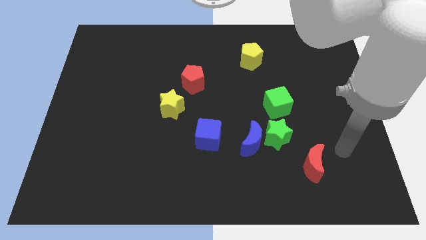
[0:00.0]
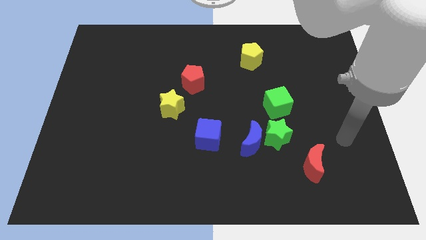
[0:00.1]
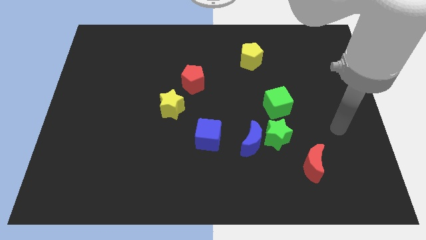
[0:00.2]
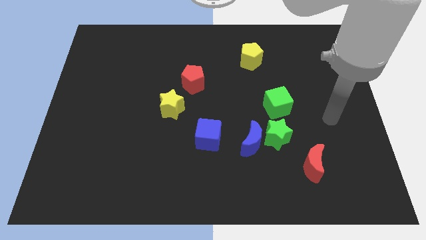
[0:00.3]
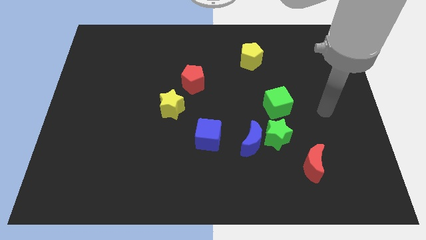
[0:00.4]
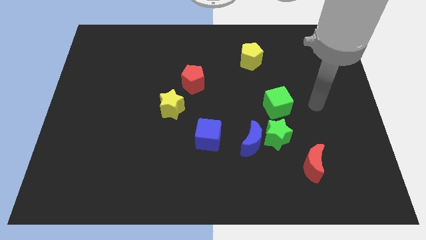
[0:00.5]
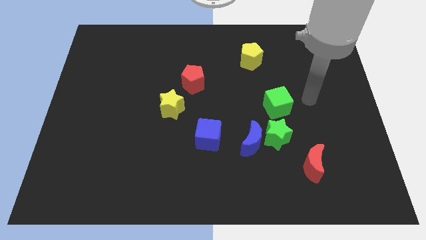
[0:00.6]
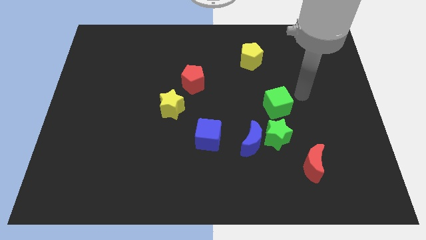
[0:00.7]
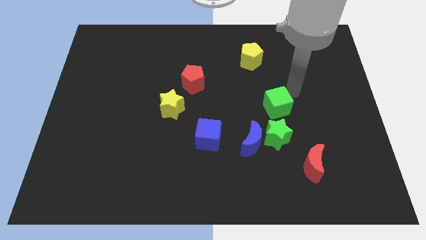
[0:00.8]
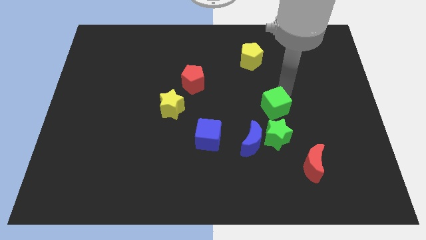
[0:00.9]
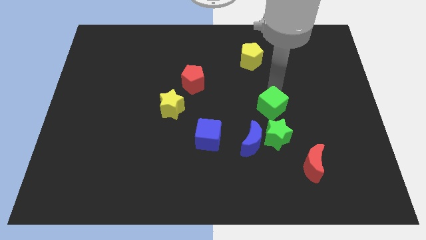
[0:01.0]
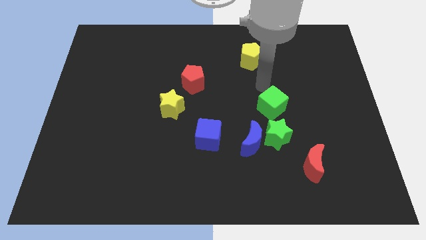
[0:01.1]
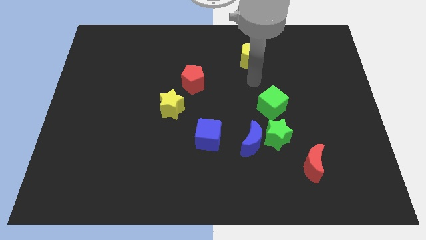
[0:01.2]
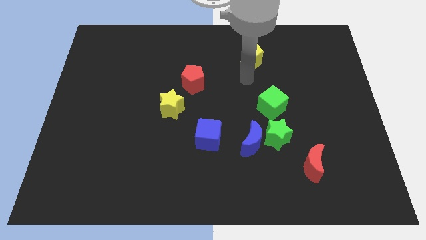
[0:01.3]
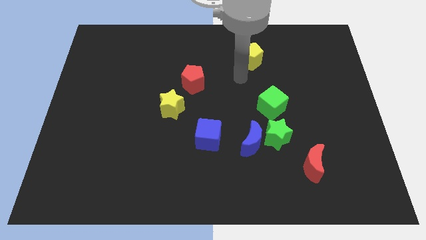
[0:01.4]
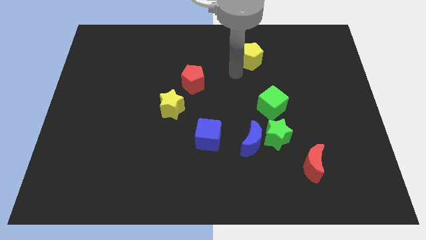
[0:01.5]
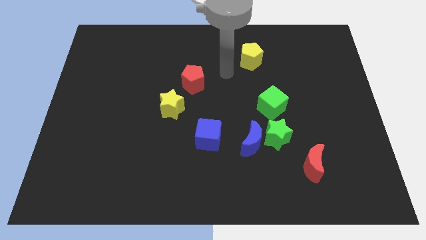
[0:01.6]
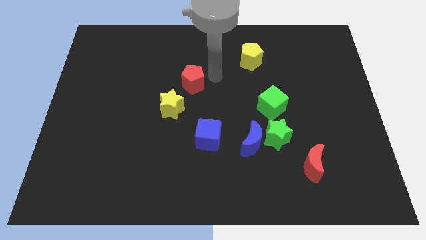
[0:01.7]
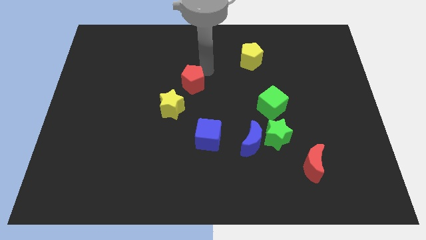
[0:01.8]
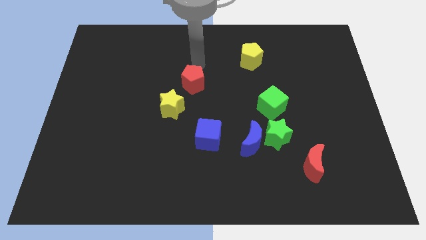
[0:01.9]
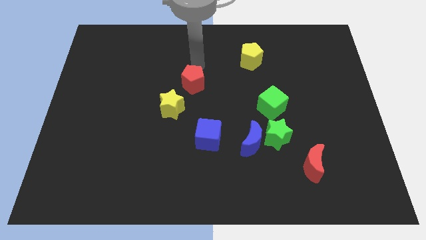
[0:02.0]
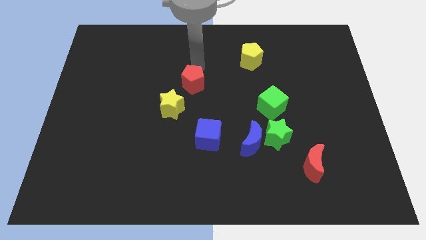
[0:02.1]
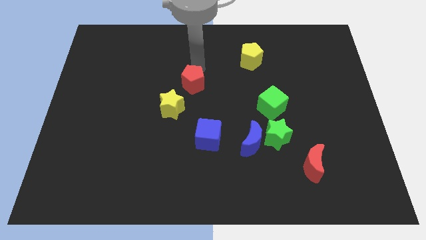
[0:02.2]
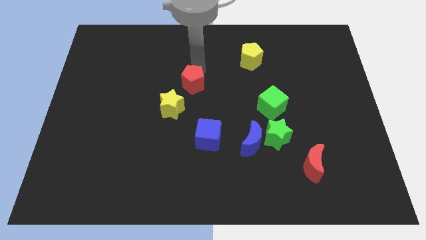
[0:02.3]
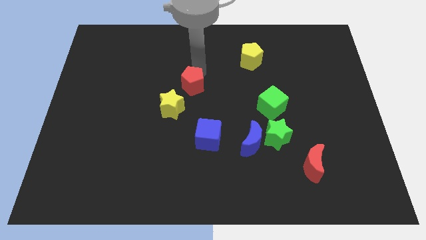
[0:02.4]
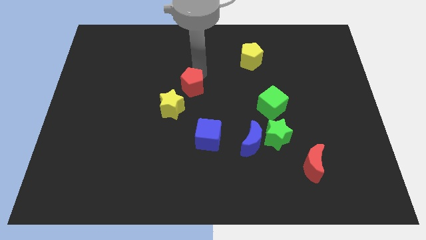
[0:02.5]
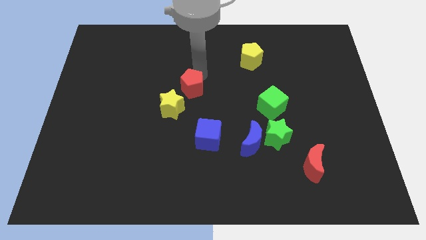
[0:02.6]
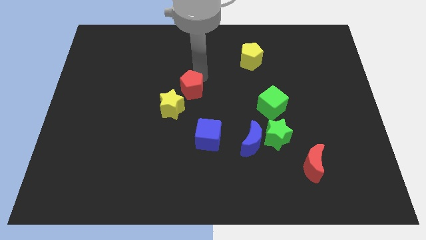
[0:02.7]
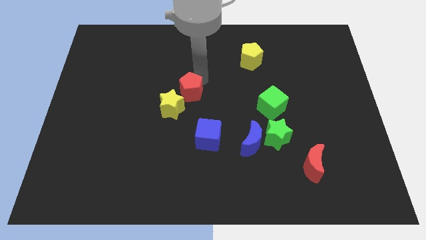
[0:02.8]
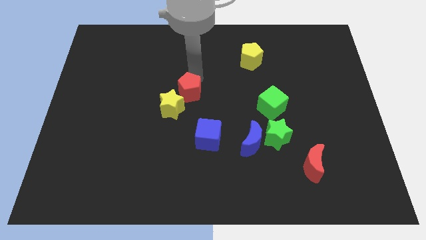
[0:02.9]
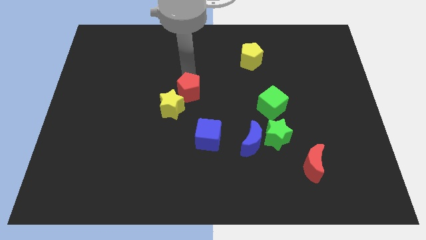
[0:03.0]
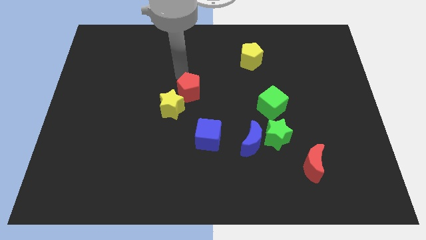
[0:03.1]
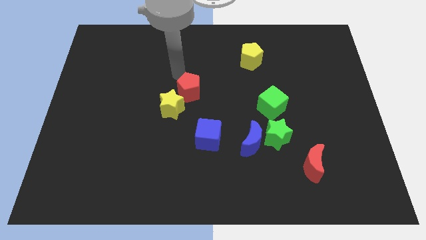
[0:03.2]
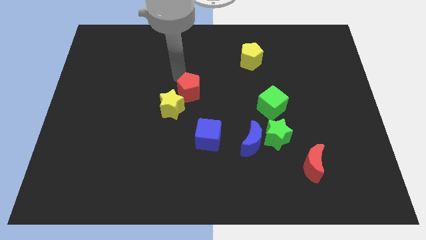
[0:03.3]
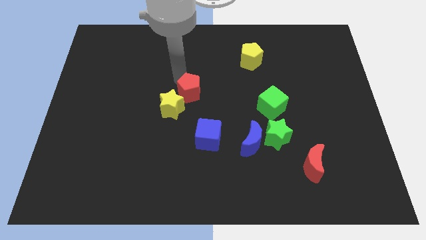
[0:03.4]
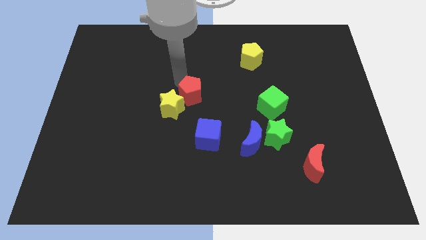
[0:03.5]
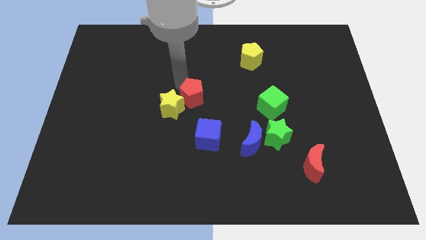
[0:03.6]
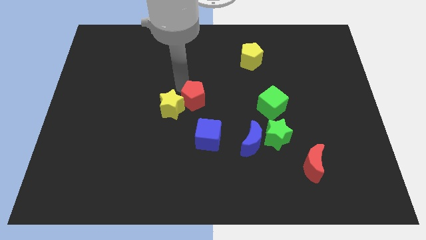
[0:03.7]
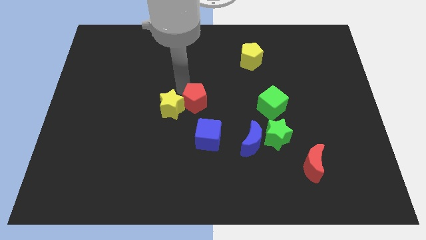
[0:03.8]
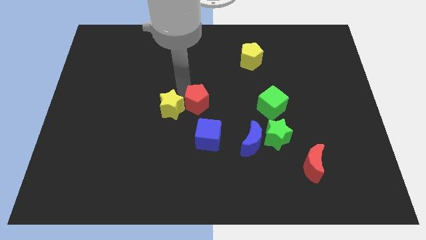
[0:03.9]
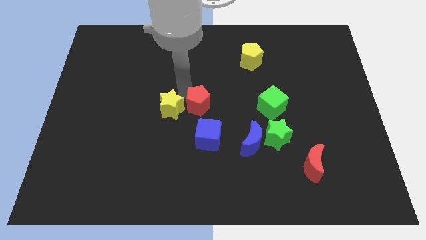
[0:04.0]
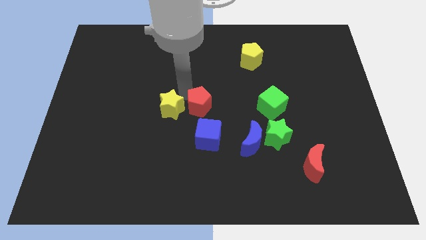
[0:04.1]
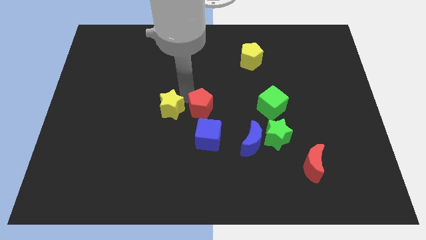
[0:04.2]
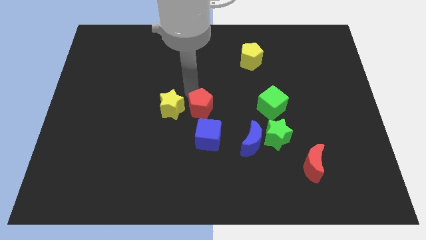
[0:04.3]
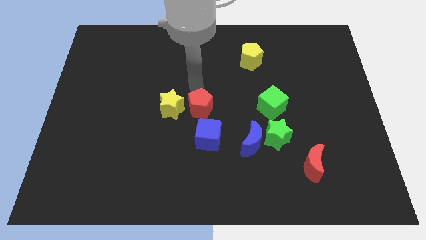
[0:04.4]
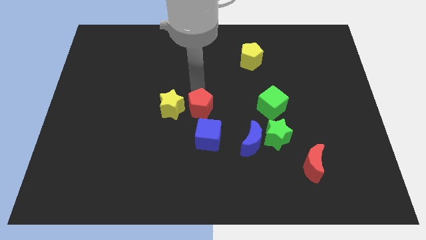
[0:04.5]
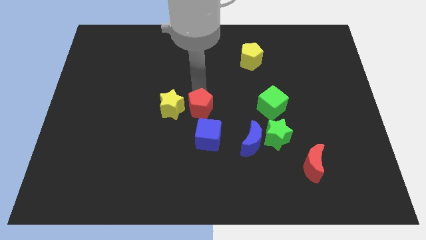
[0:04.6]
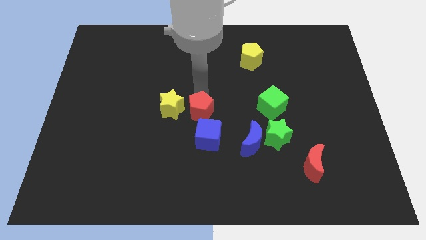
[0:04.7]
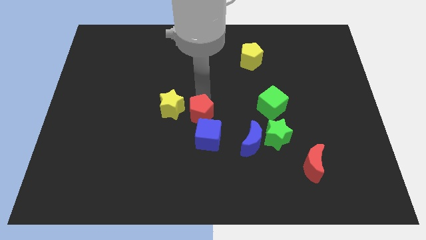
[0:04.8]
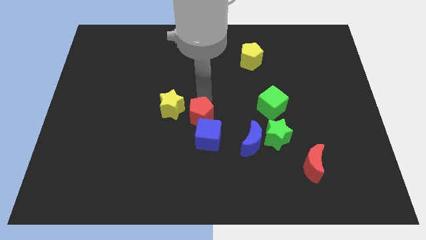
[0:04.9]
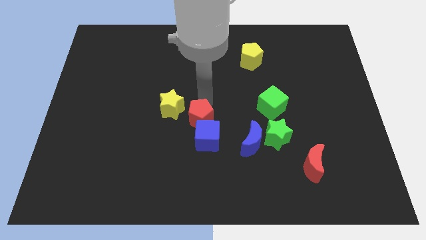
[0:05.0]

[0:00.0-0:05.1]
put the red pentagon next to the blue cube

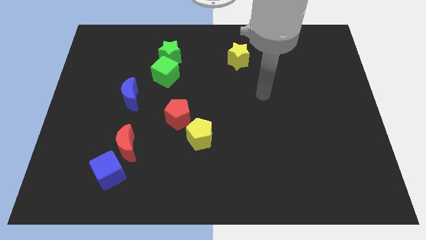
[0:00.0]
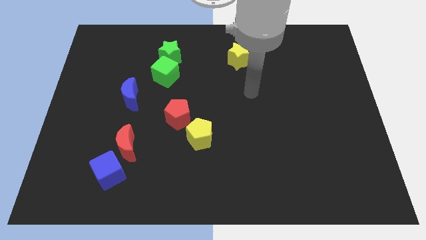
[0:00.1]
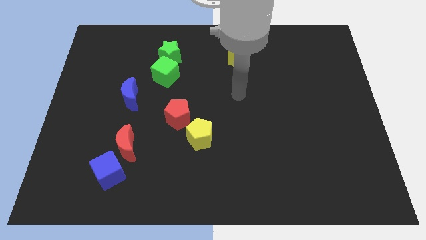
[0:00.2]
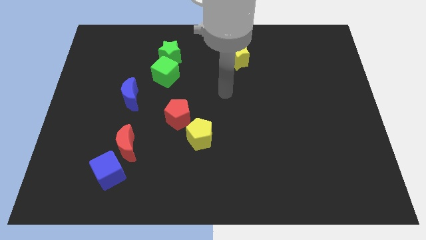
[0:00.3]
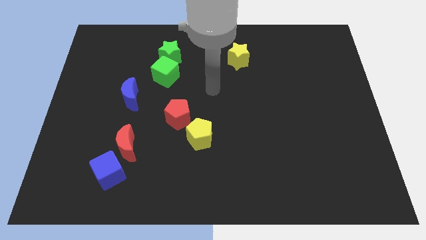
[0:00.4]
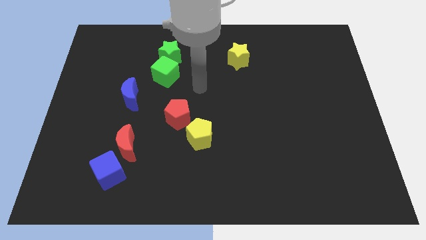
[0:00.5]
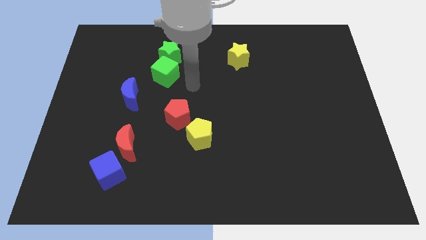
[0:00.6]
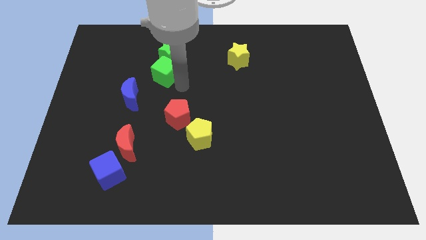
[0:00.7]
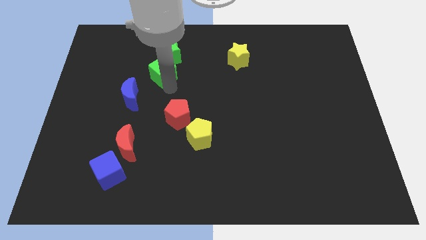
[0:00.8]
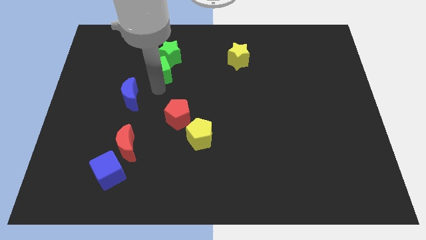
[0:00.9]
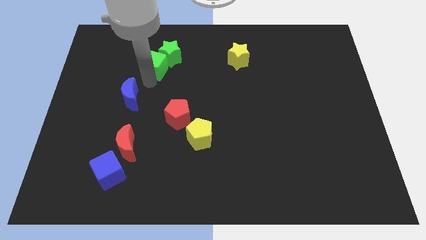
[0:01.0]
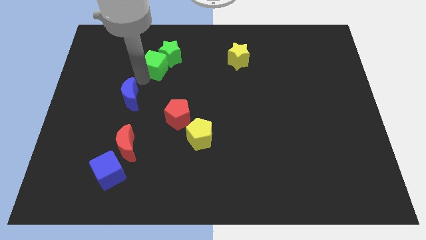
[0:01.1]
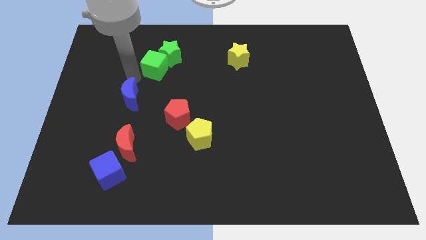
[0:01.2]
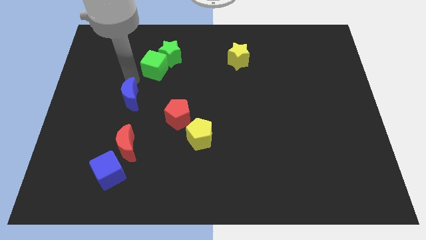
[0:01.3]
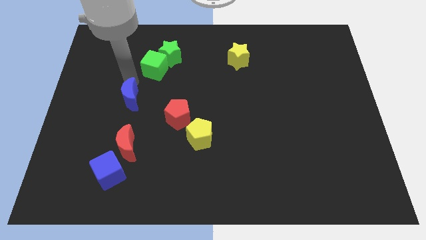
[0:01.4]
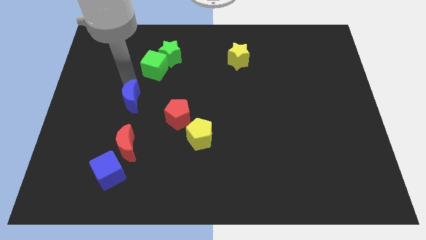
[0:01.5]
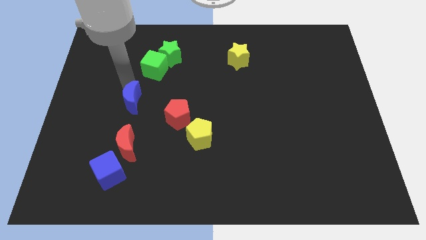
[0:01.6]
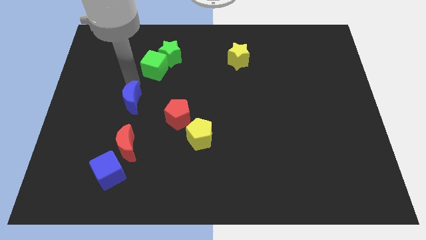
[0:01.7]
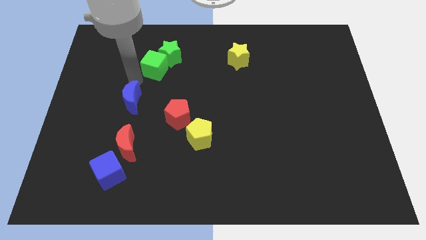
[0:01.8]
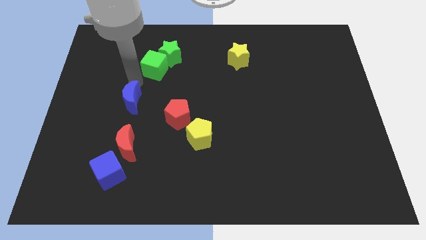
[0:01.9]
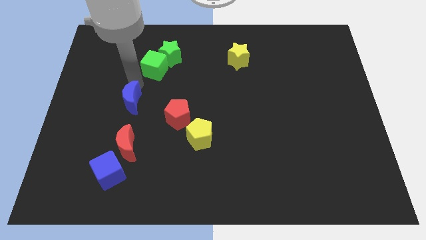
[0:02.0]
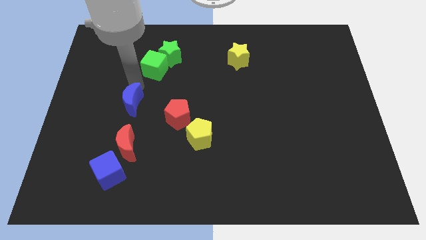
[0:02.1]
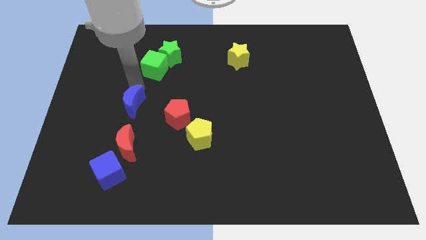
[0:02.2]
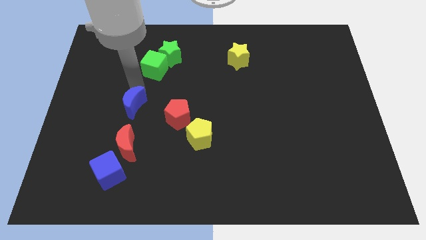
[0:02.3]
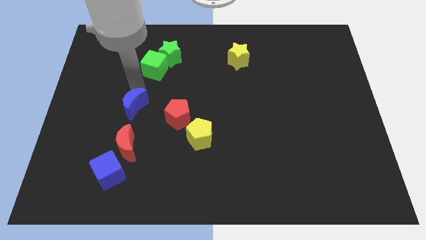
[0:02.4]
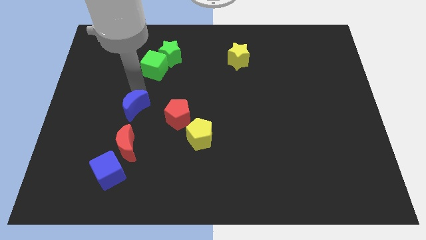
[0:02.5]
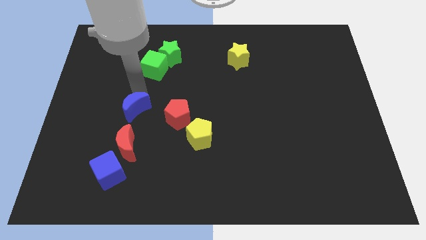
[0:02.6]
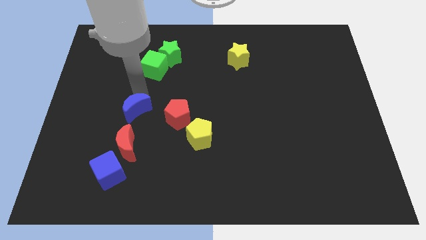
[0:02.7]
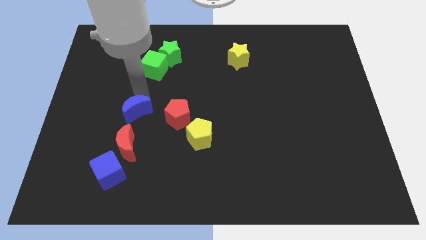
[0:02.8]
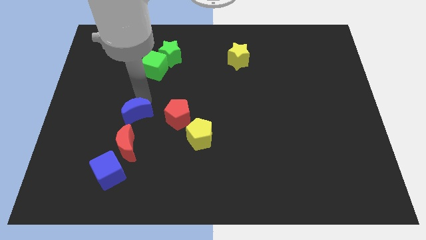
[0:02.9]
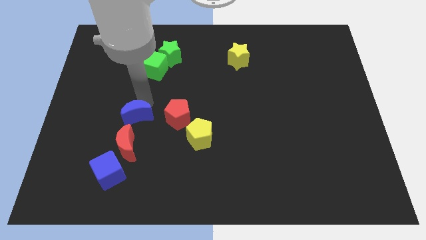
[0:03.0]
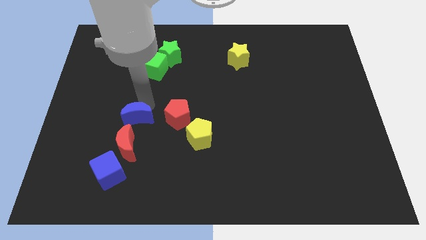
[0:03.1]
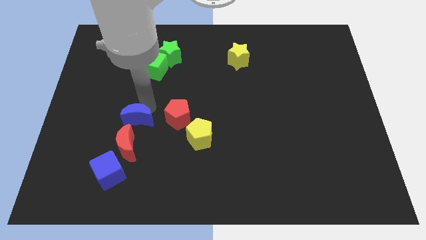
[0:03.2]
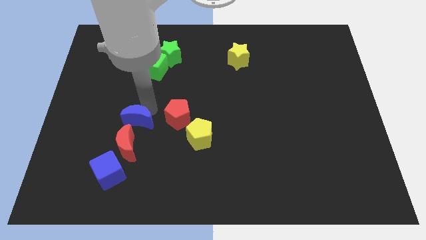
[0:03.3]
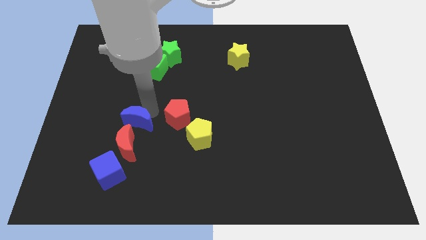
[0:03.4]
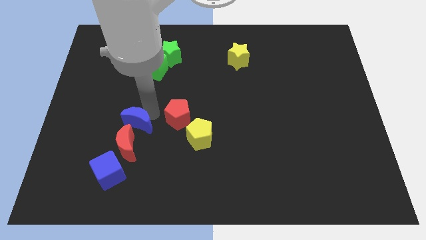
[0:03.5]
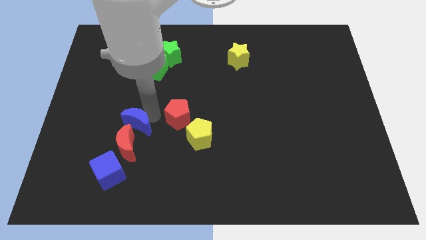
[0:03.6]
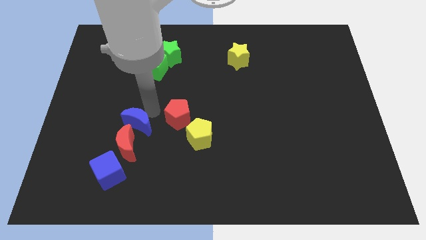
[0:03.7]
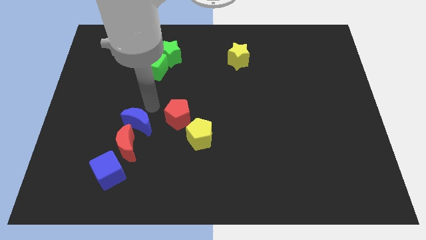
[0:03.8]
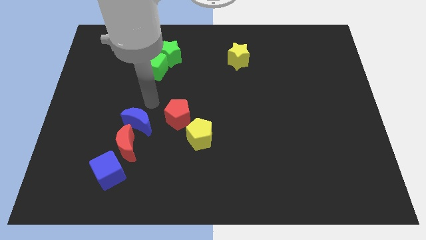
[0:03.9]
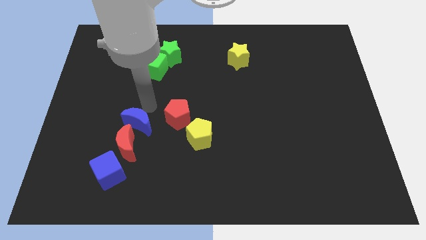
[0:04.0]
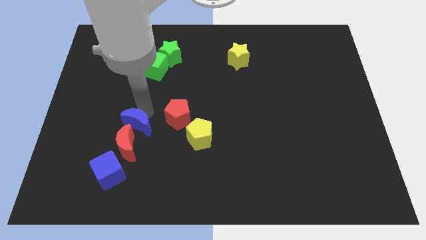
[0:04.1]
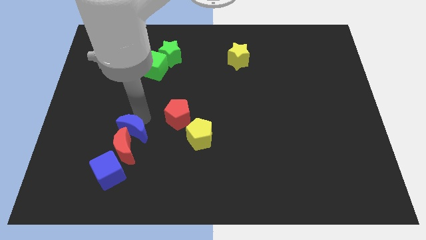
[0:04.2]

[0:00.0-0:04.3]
move the blue moon next to the red moon
